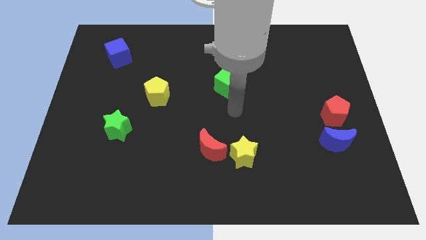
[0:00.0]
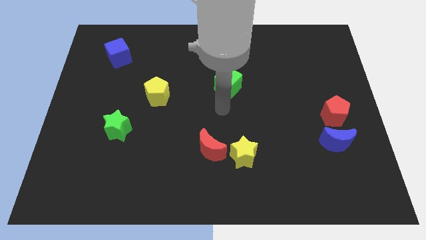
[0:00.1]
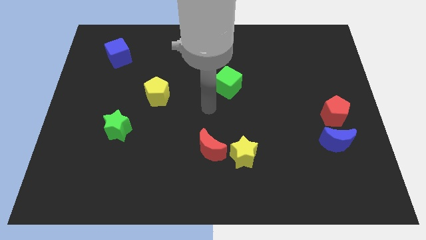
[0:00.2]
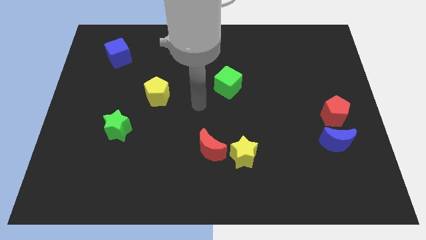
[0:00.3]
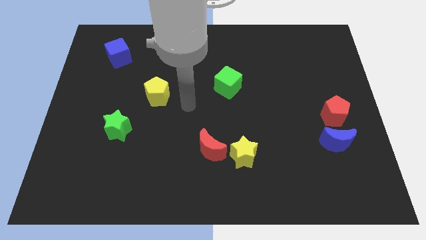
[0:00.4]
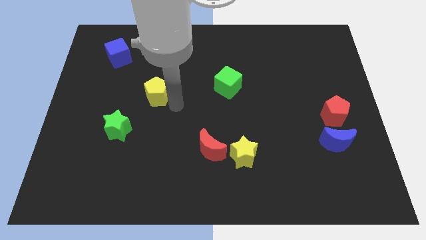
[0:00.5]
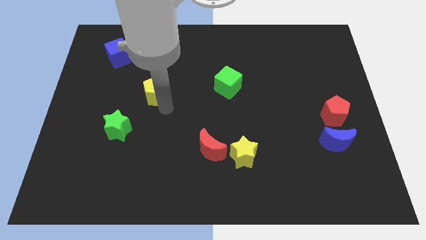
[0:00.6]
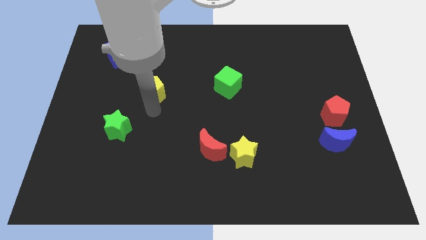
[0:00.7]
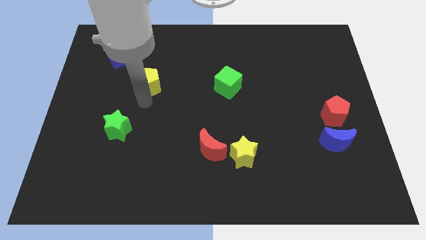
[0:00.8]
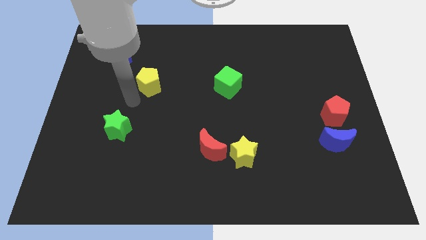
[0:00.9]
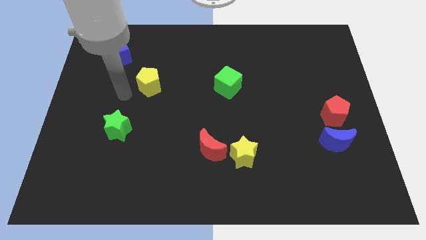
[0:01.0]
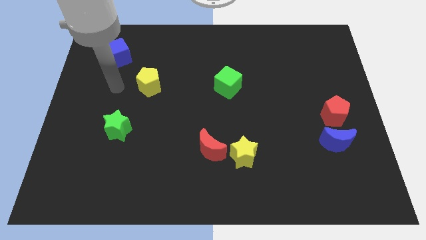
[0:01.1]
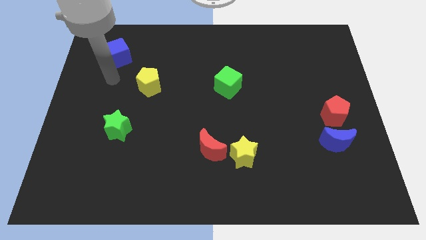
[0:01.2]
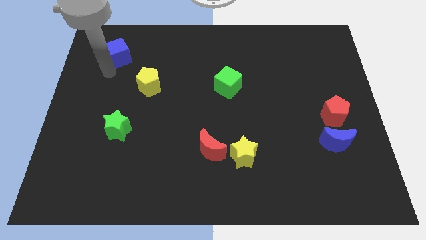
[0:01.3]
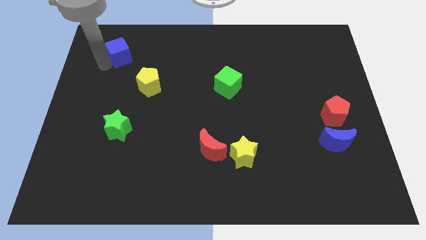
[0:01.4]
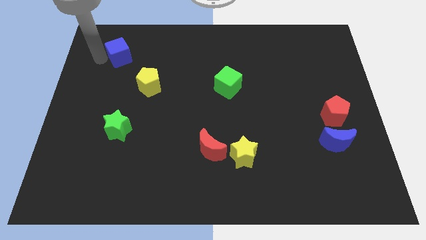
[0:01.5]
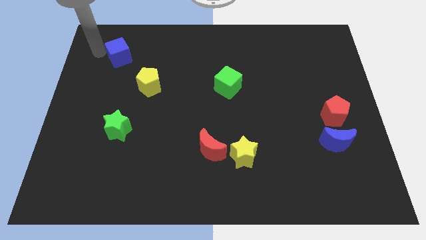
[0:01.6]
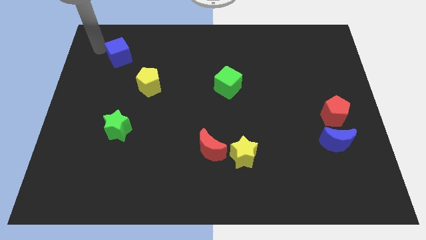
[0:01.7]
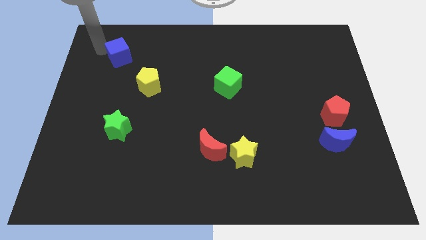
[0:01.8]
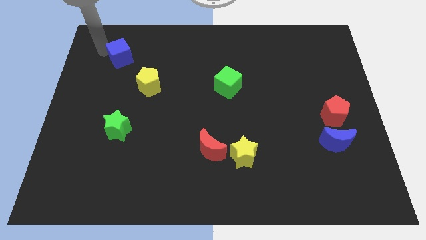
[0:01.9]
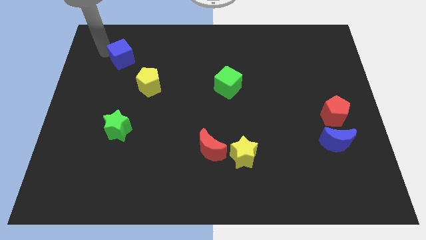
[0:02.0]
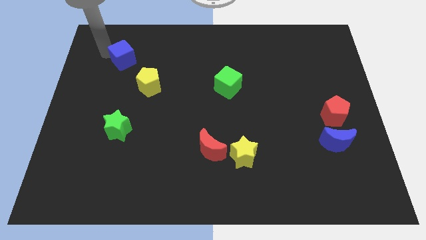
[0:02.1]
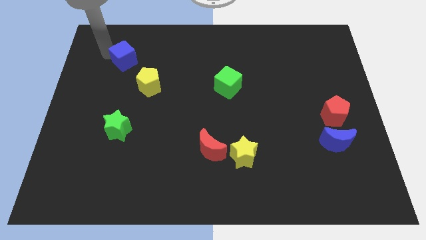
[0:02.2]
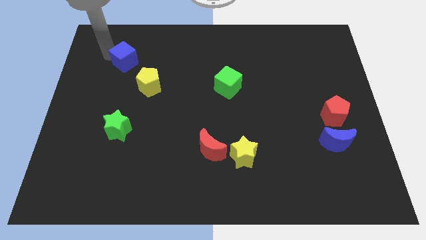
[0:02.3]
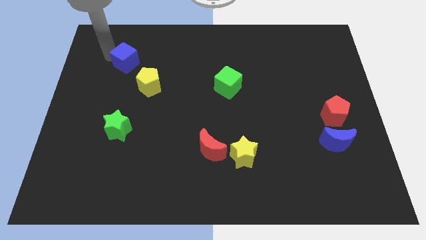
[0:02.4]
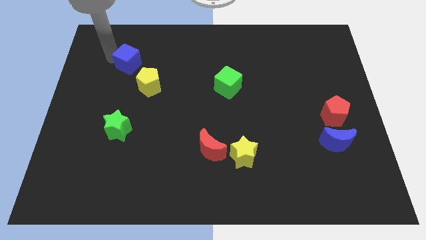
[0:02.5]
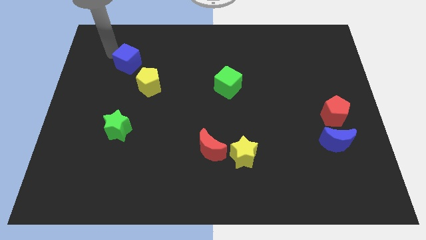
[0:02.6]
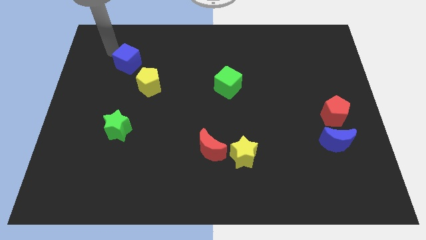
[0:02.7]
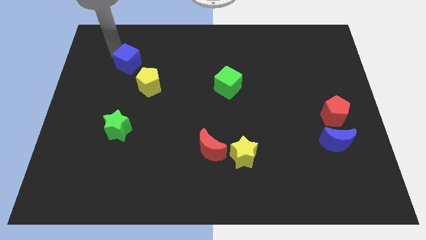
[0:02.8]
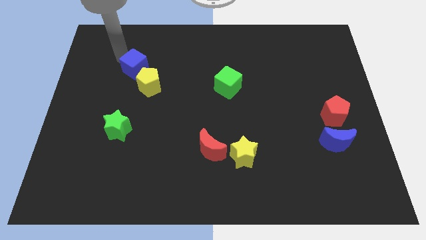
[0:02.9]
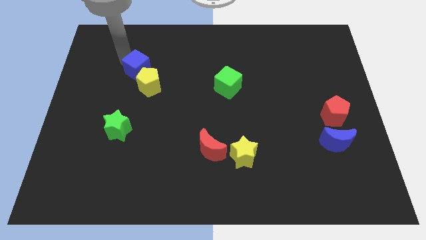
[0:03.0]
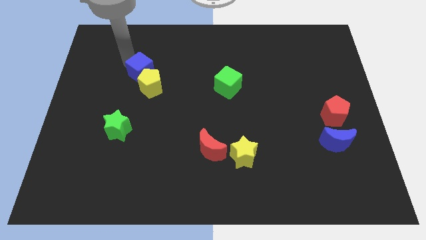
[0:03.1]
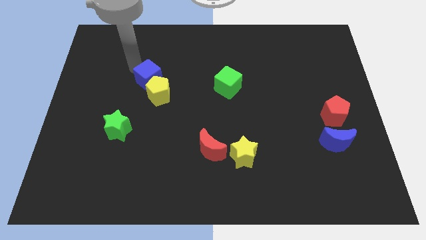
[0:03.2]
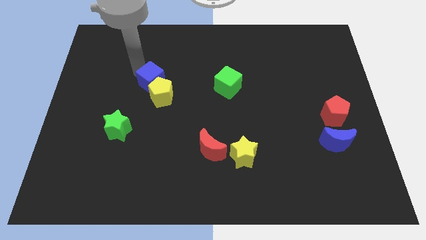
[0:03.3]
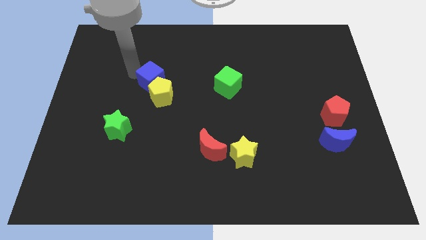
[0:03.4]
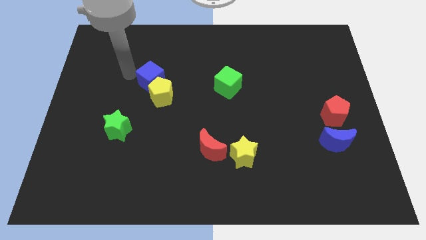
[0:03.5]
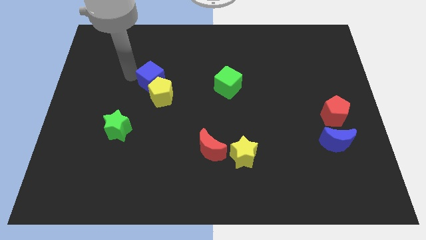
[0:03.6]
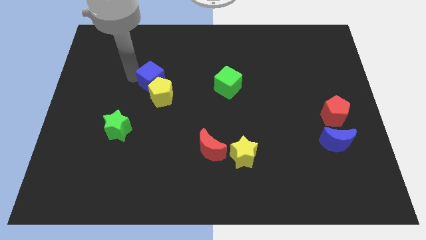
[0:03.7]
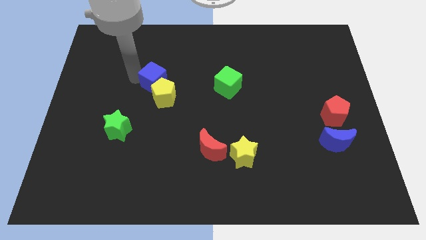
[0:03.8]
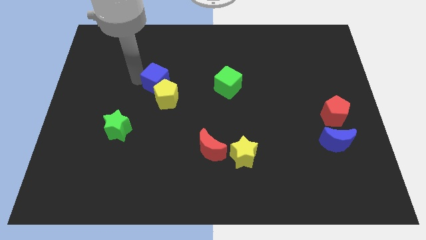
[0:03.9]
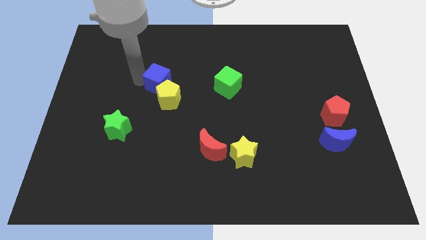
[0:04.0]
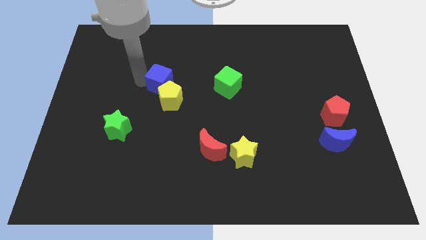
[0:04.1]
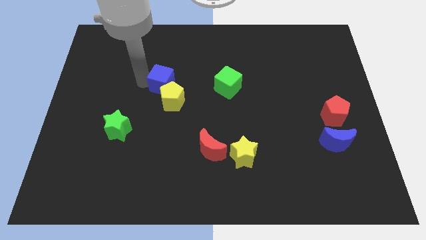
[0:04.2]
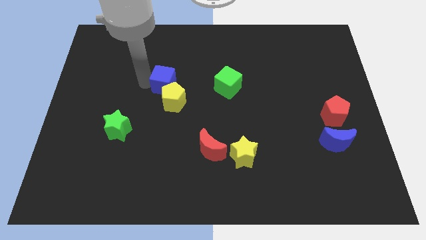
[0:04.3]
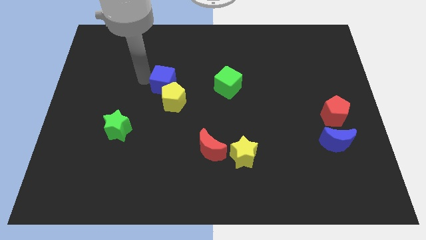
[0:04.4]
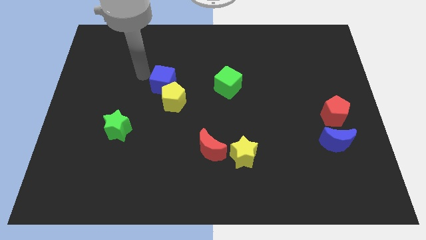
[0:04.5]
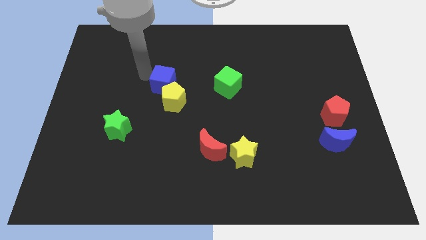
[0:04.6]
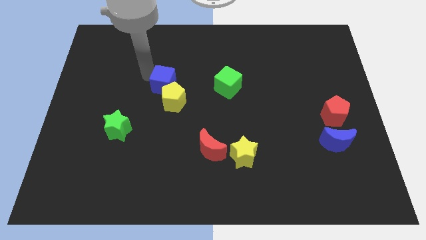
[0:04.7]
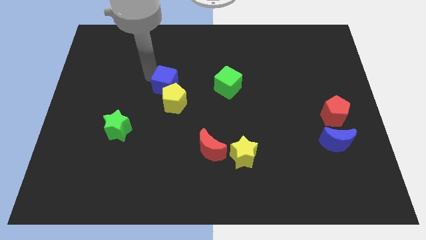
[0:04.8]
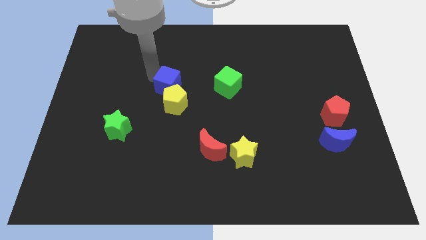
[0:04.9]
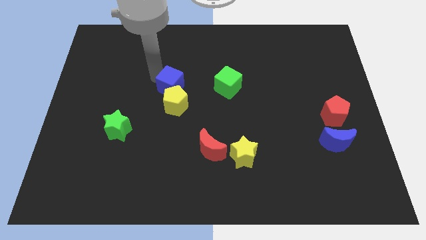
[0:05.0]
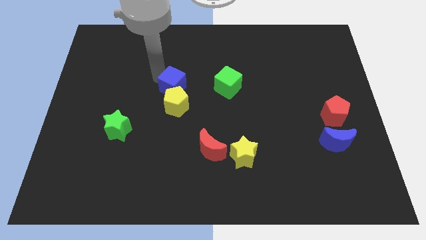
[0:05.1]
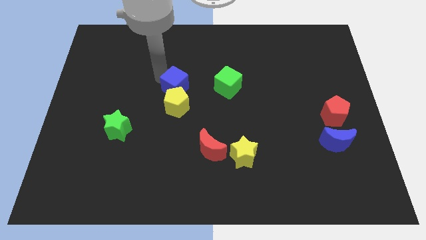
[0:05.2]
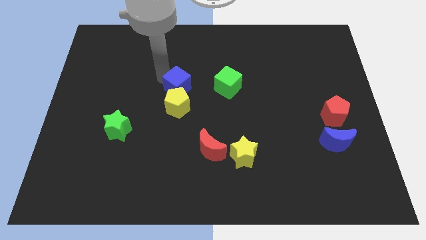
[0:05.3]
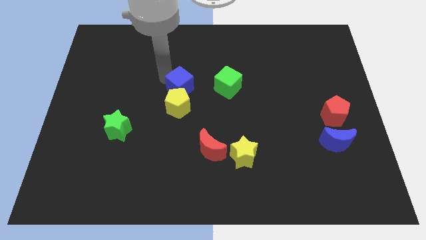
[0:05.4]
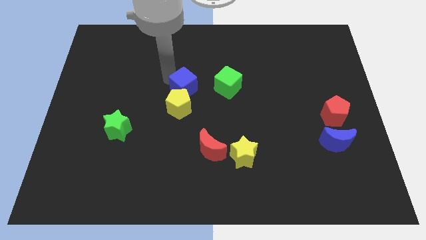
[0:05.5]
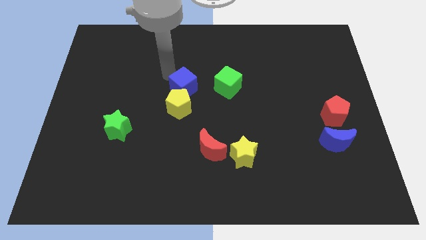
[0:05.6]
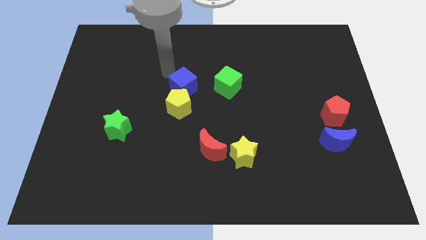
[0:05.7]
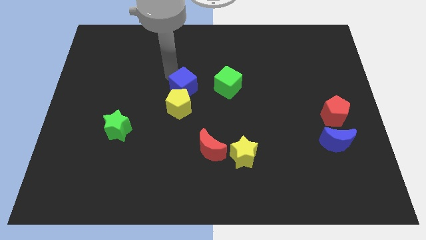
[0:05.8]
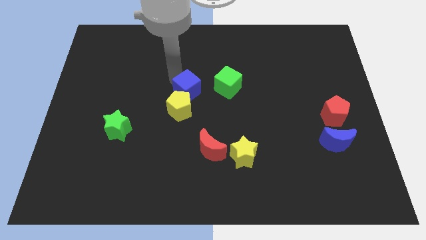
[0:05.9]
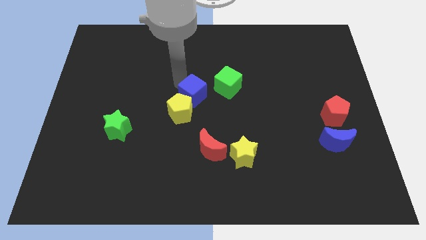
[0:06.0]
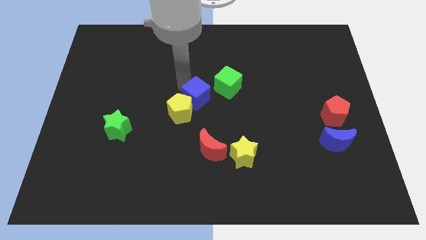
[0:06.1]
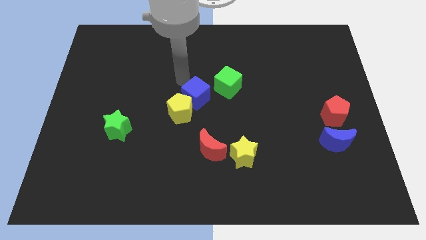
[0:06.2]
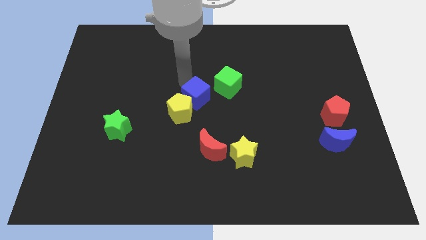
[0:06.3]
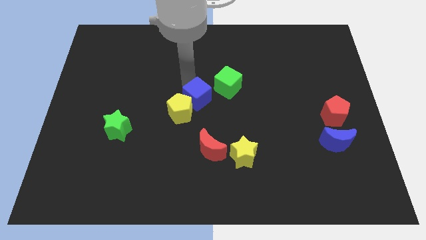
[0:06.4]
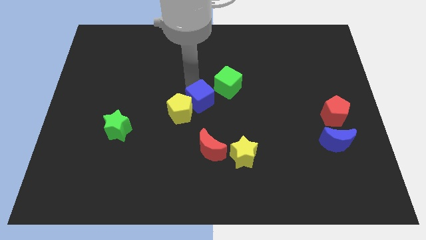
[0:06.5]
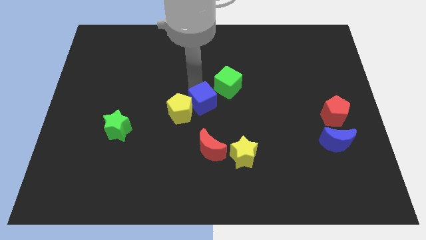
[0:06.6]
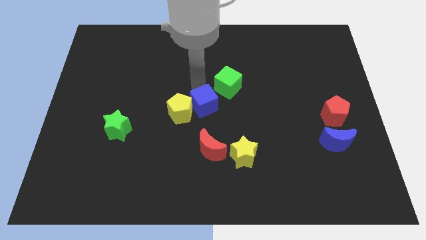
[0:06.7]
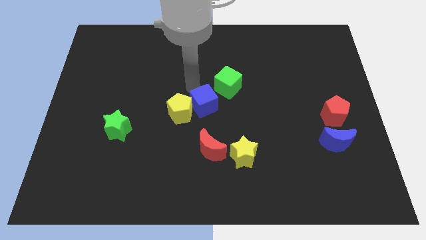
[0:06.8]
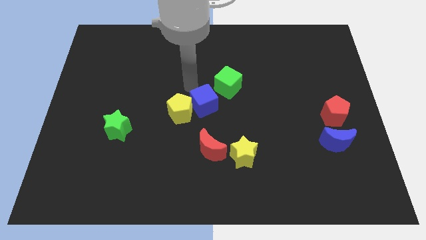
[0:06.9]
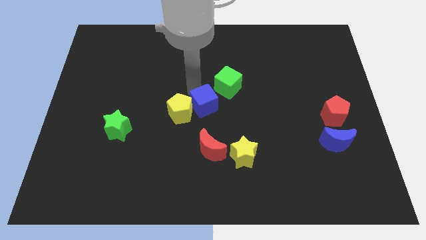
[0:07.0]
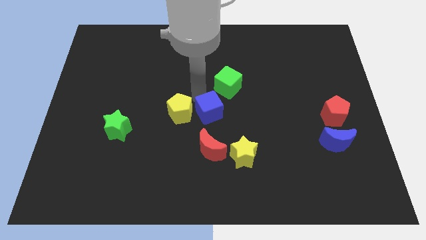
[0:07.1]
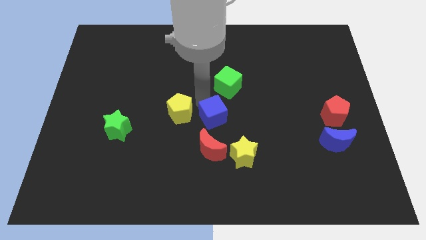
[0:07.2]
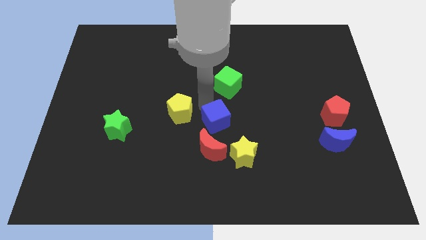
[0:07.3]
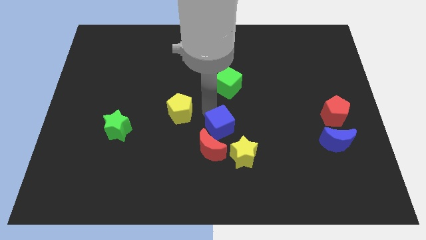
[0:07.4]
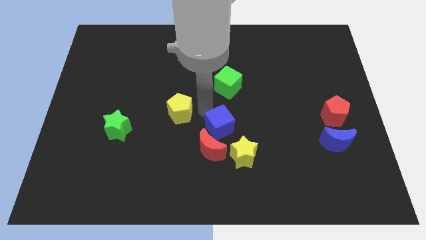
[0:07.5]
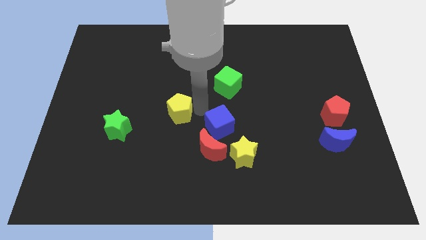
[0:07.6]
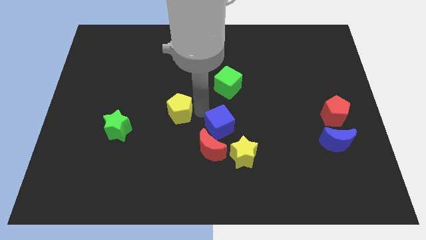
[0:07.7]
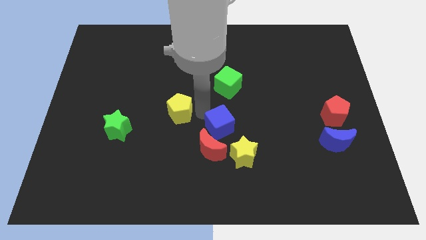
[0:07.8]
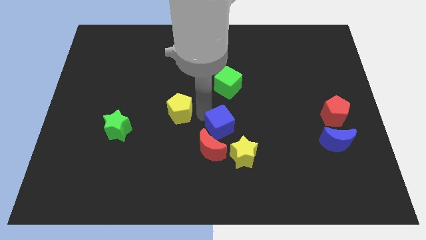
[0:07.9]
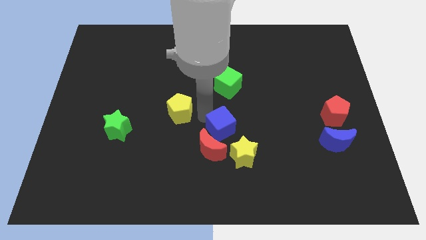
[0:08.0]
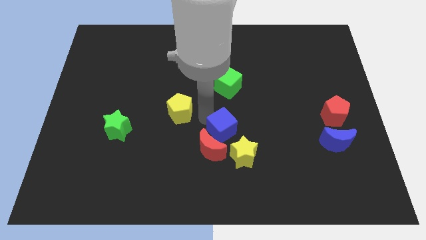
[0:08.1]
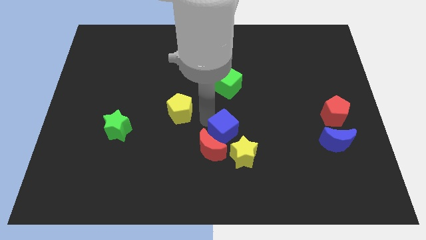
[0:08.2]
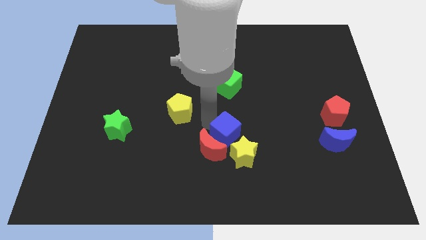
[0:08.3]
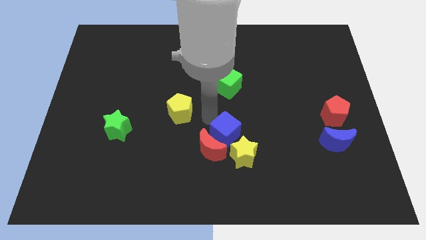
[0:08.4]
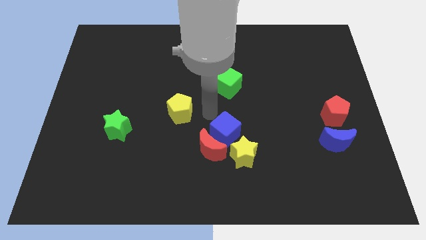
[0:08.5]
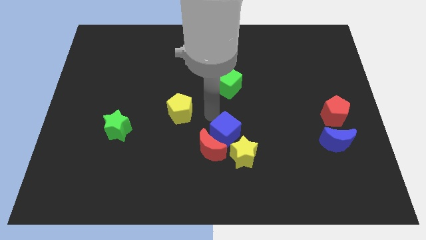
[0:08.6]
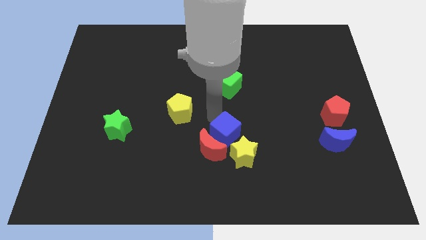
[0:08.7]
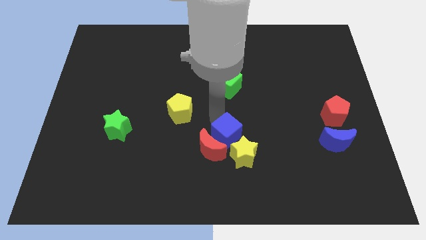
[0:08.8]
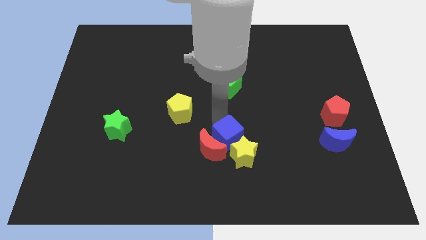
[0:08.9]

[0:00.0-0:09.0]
move the blue cube to the yellow star
